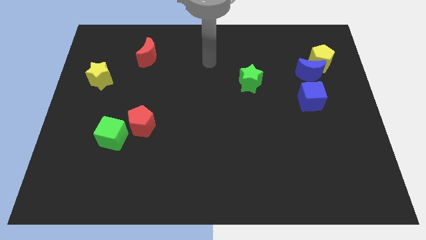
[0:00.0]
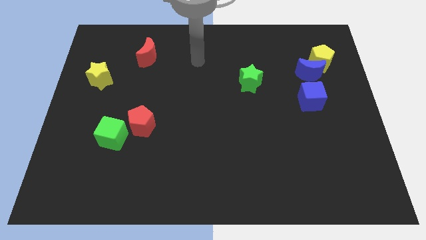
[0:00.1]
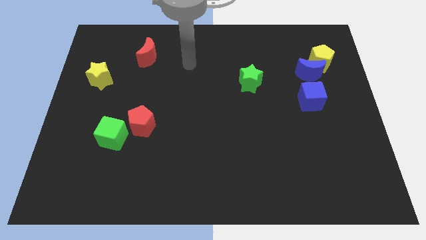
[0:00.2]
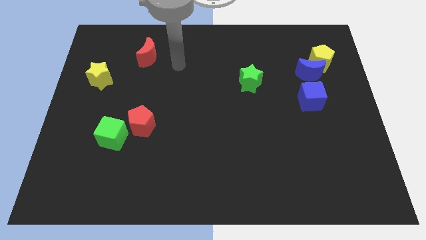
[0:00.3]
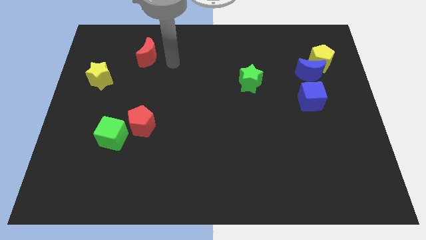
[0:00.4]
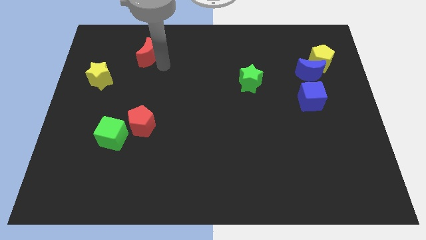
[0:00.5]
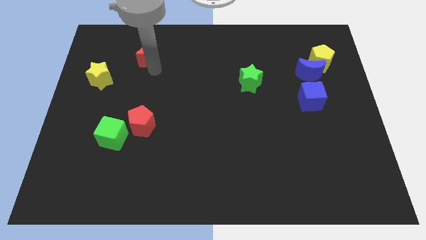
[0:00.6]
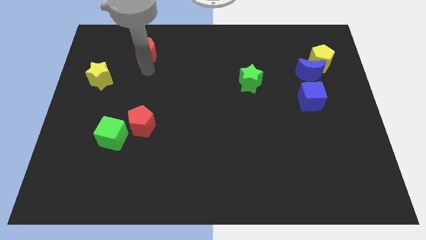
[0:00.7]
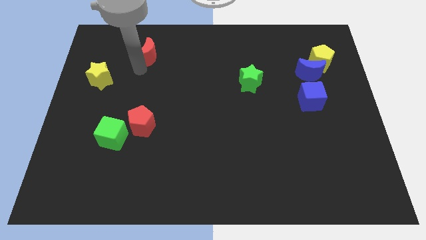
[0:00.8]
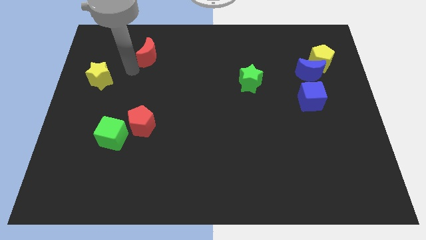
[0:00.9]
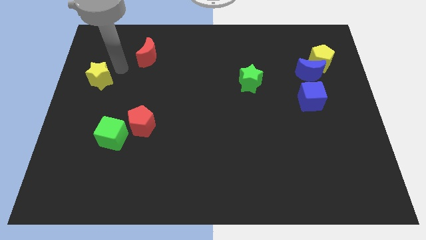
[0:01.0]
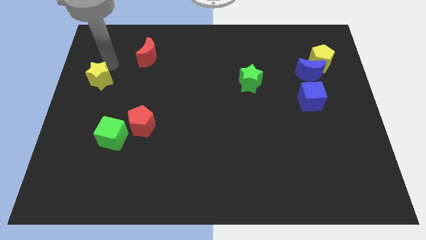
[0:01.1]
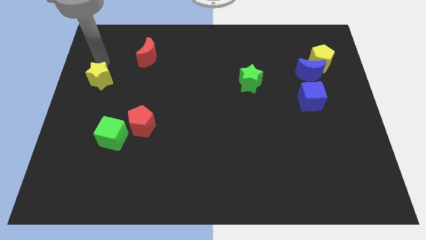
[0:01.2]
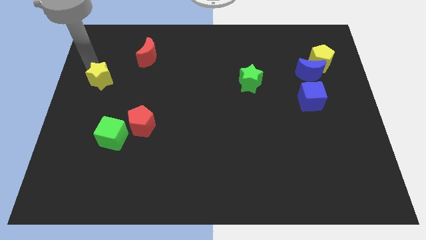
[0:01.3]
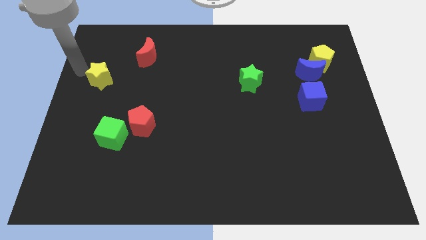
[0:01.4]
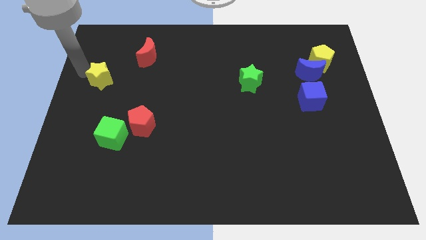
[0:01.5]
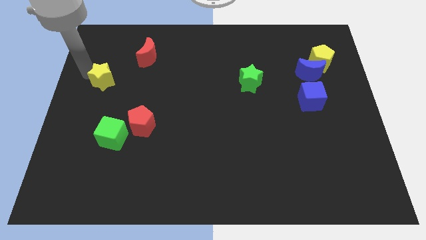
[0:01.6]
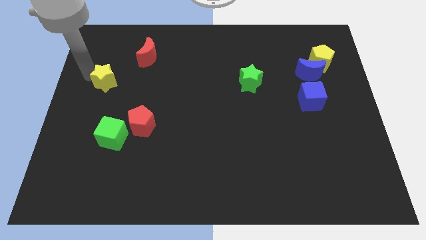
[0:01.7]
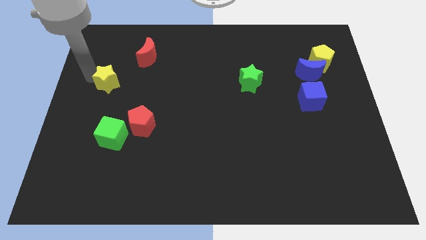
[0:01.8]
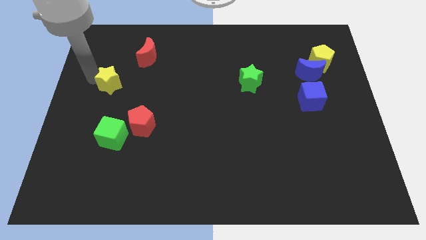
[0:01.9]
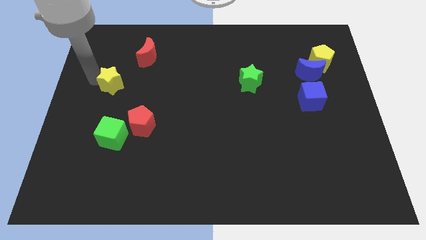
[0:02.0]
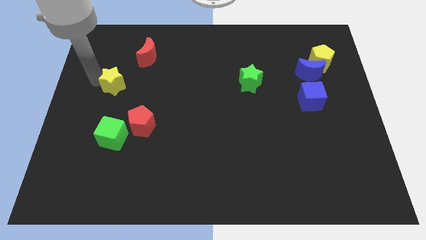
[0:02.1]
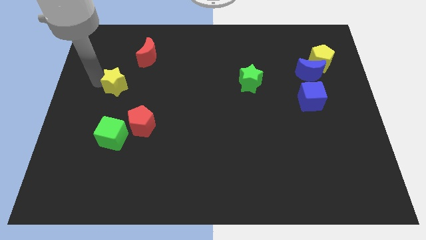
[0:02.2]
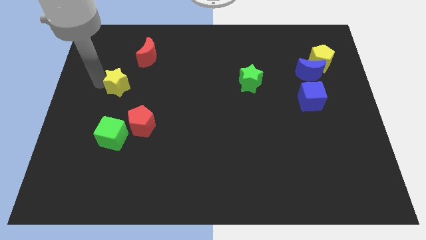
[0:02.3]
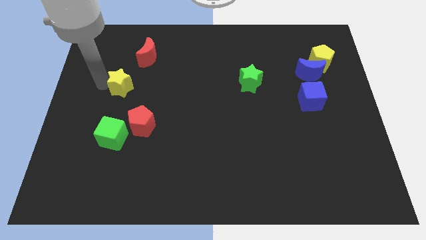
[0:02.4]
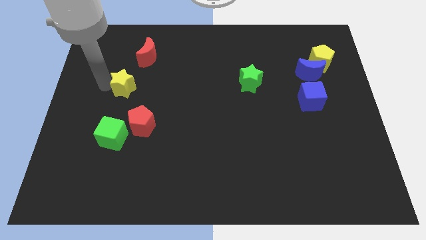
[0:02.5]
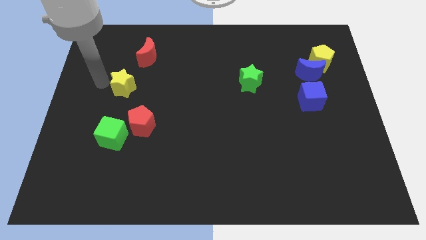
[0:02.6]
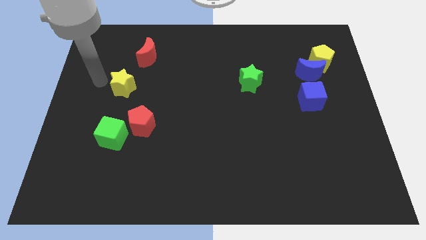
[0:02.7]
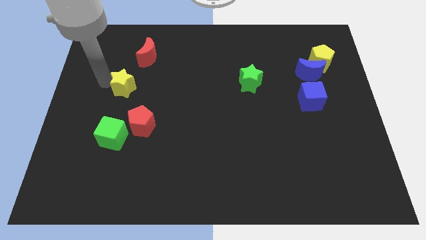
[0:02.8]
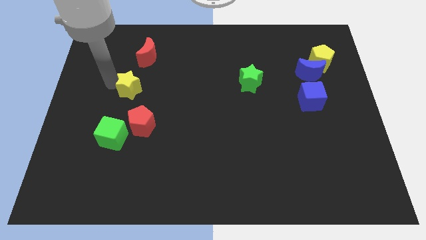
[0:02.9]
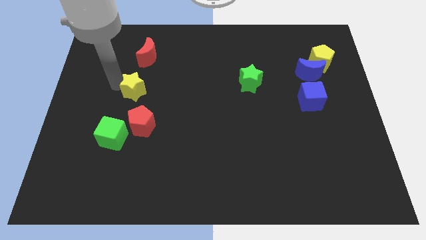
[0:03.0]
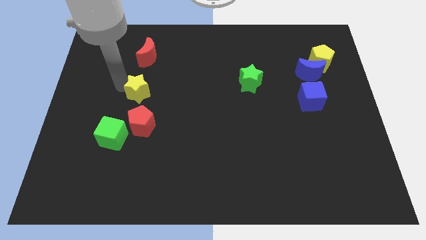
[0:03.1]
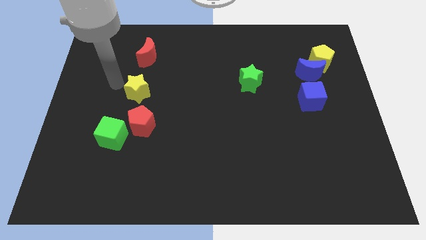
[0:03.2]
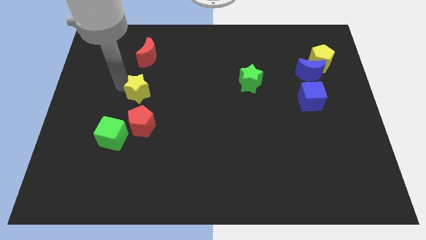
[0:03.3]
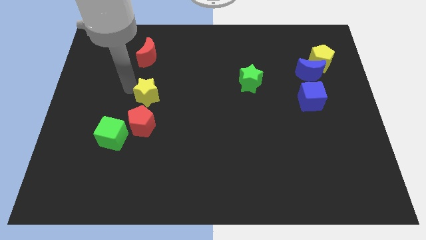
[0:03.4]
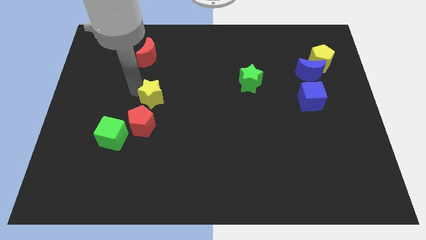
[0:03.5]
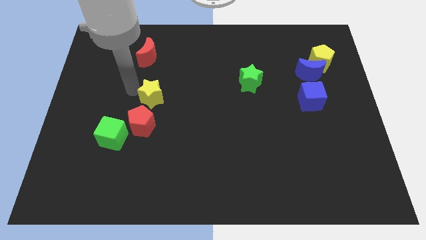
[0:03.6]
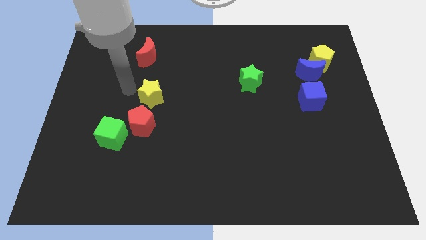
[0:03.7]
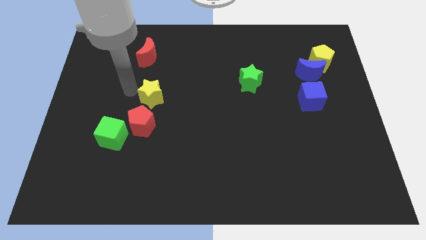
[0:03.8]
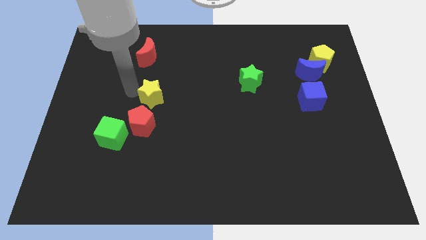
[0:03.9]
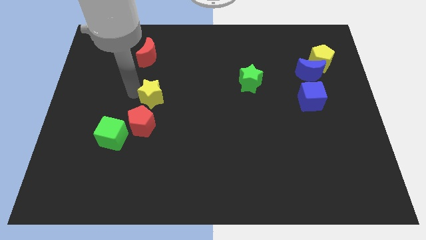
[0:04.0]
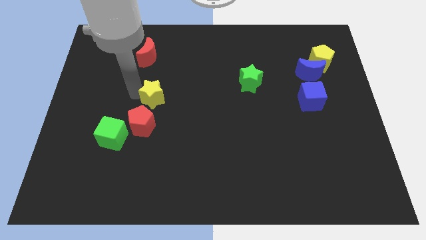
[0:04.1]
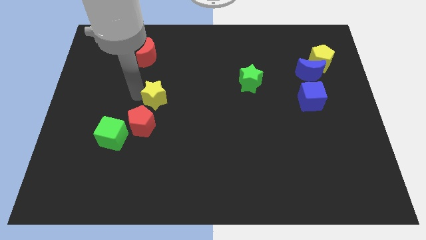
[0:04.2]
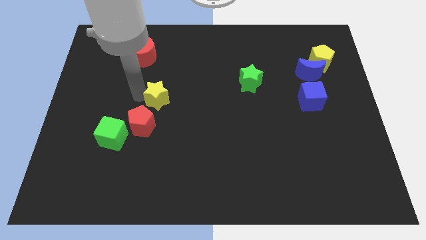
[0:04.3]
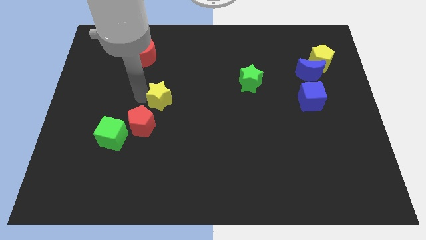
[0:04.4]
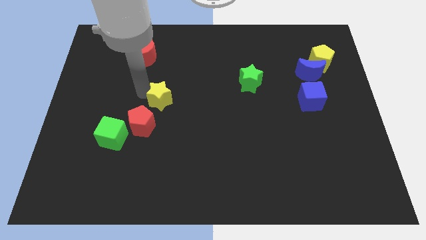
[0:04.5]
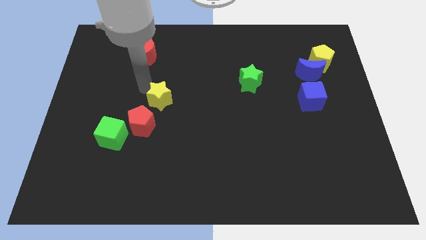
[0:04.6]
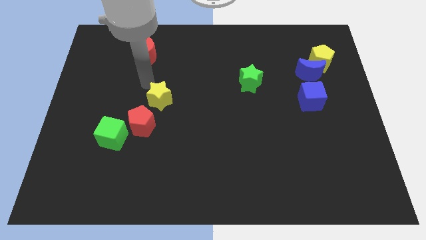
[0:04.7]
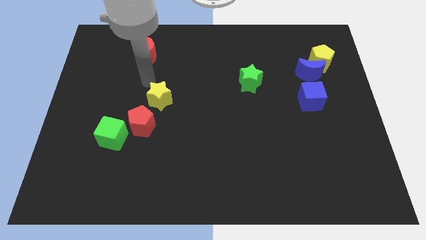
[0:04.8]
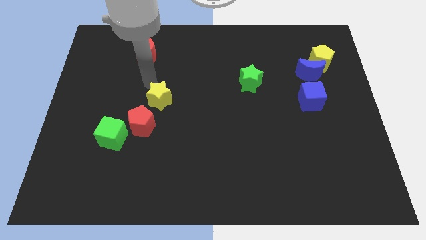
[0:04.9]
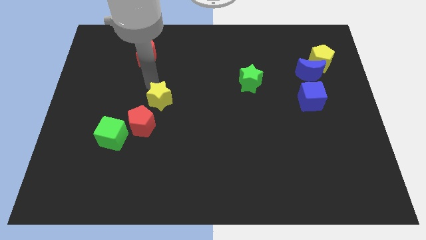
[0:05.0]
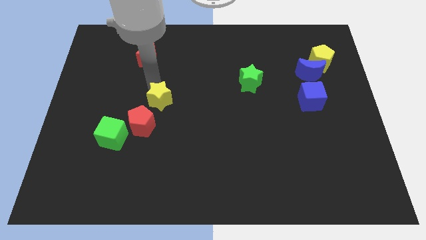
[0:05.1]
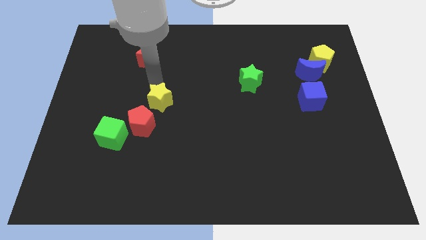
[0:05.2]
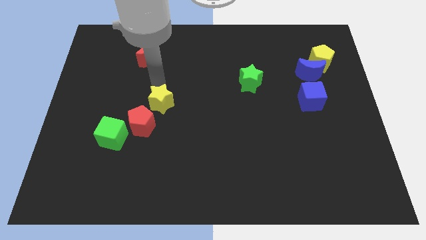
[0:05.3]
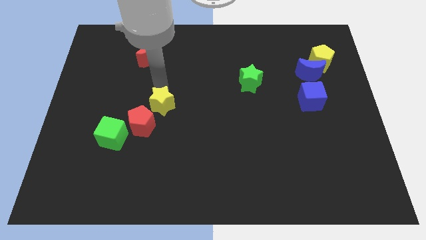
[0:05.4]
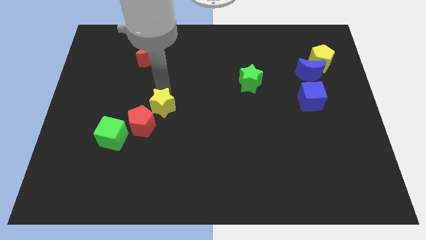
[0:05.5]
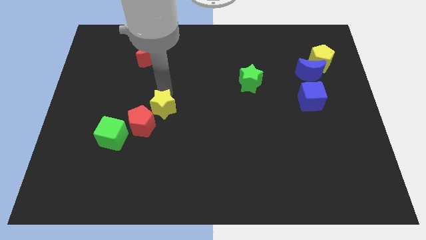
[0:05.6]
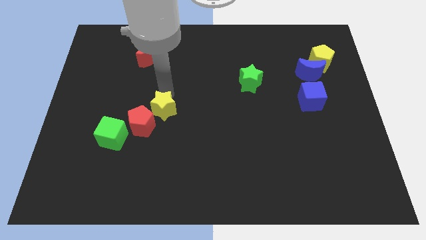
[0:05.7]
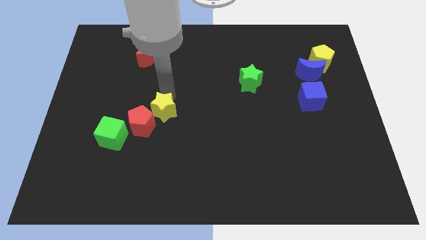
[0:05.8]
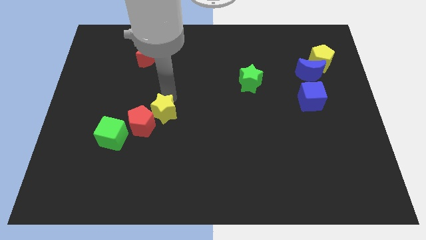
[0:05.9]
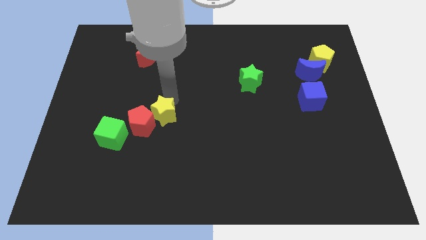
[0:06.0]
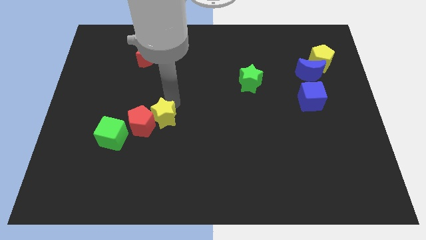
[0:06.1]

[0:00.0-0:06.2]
slide the yellow star down and to the right

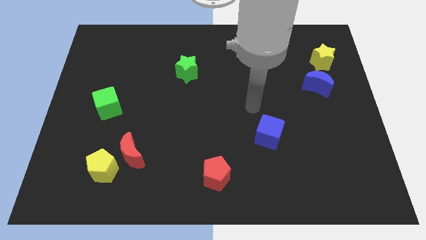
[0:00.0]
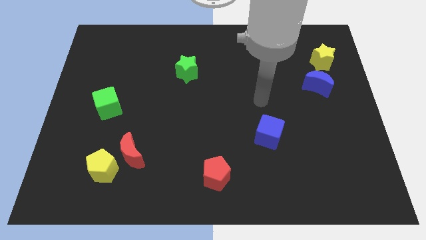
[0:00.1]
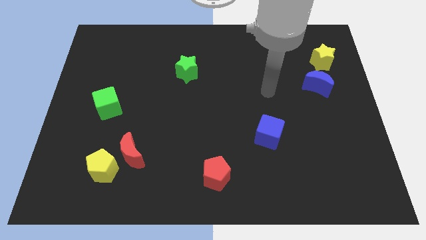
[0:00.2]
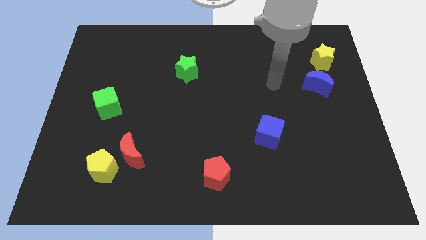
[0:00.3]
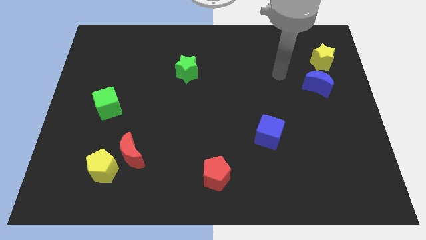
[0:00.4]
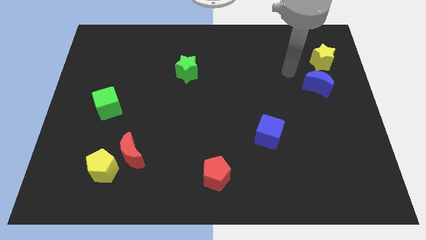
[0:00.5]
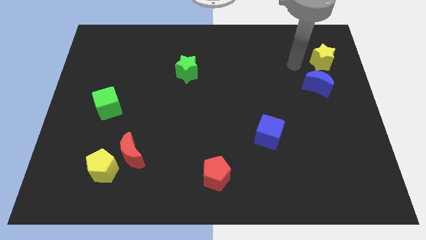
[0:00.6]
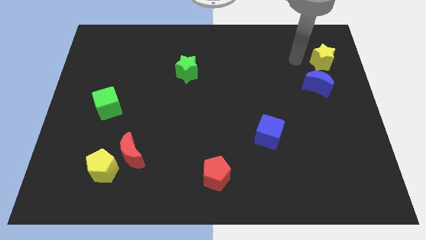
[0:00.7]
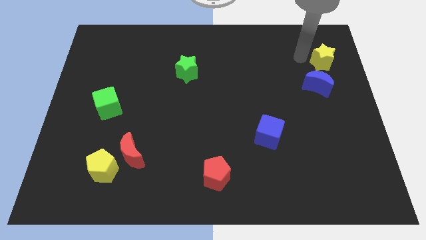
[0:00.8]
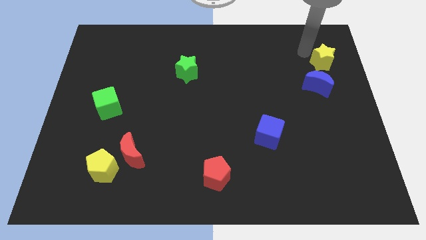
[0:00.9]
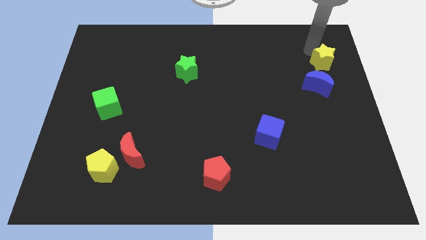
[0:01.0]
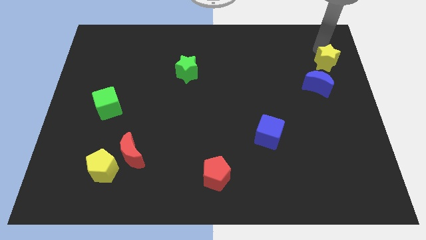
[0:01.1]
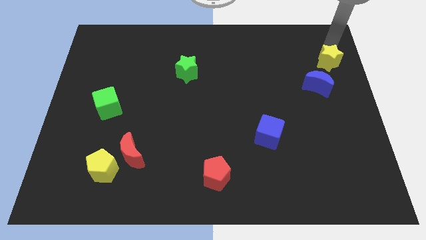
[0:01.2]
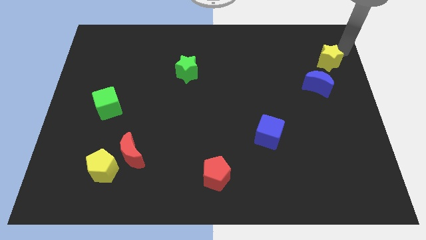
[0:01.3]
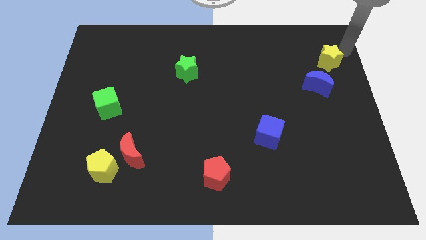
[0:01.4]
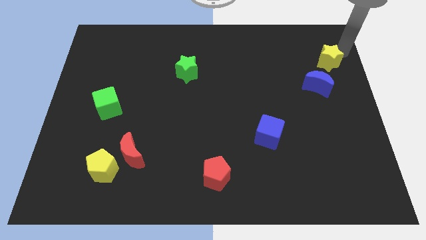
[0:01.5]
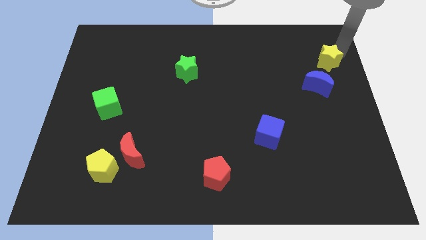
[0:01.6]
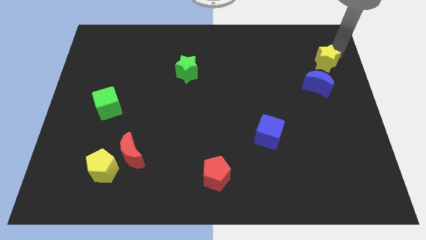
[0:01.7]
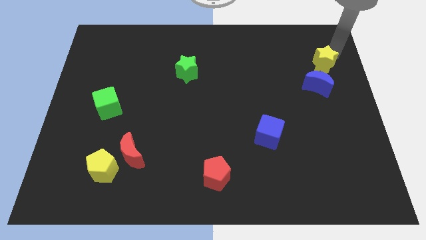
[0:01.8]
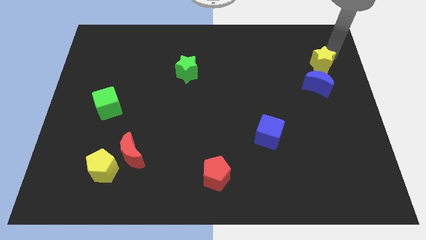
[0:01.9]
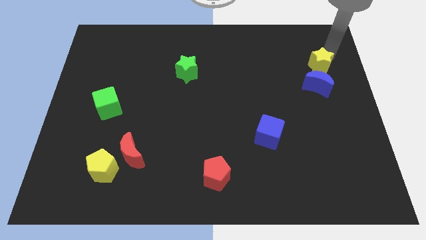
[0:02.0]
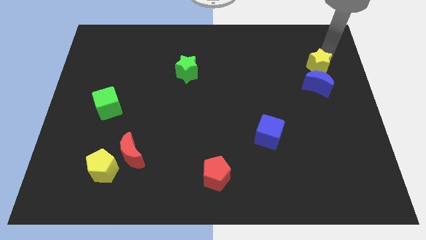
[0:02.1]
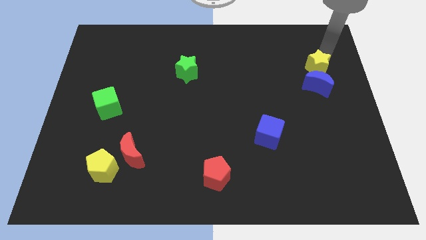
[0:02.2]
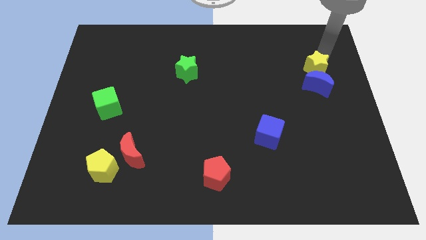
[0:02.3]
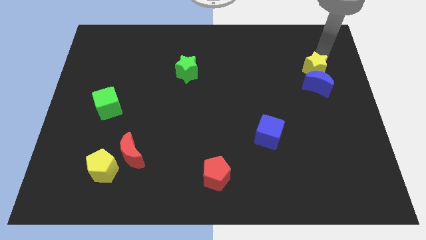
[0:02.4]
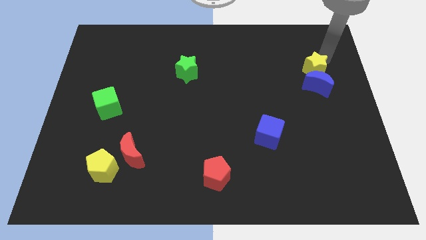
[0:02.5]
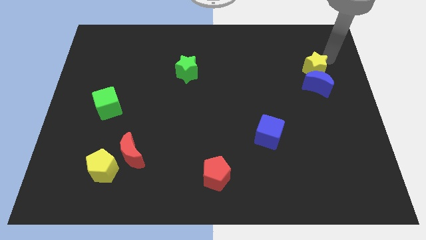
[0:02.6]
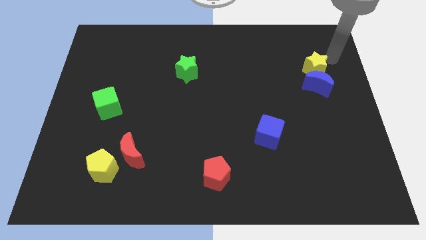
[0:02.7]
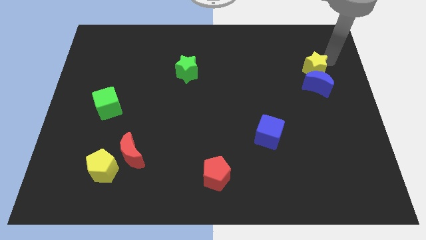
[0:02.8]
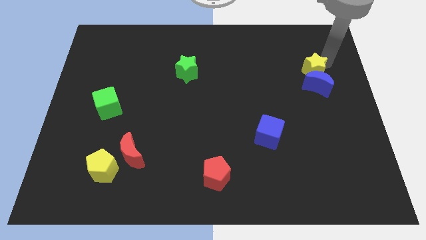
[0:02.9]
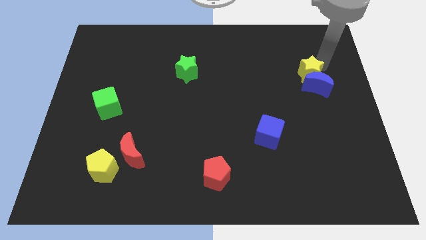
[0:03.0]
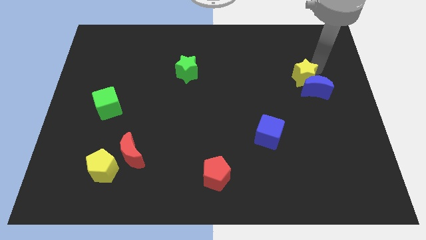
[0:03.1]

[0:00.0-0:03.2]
slightly push the yellow star down and then left
